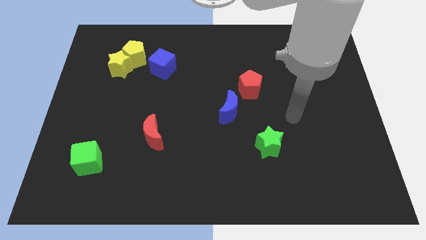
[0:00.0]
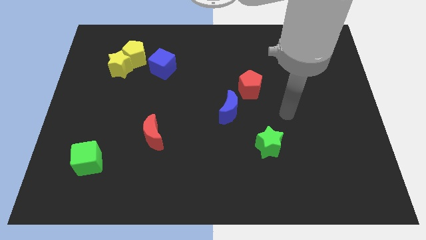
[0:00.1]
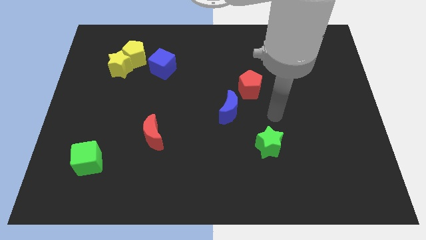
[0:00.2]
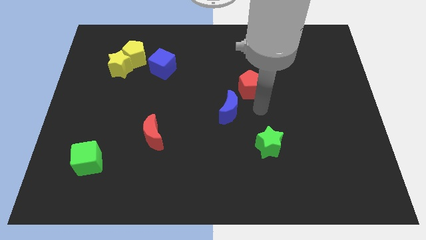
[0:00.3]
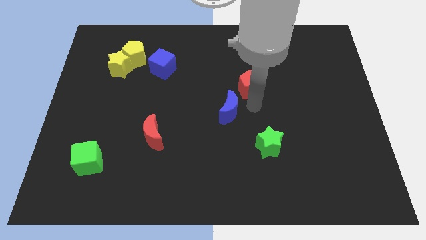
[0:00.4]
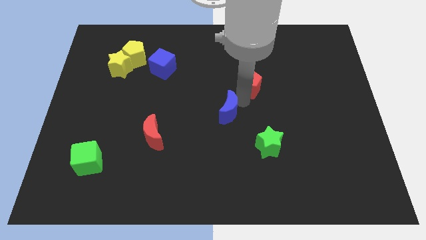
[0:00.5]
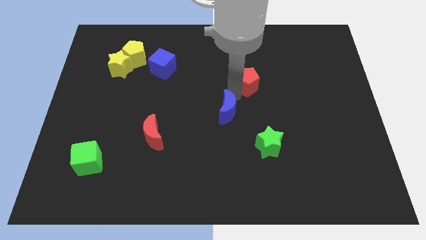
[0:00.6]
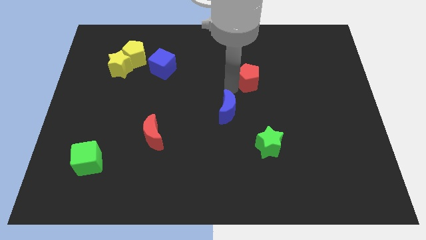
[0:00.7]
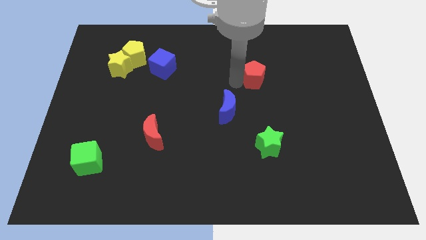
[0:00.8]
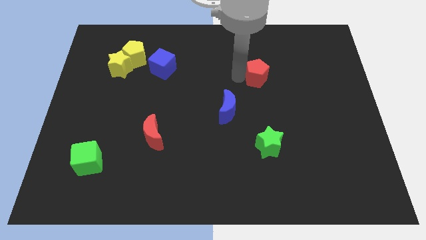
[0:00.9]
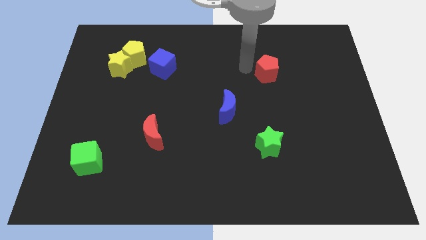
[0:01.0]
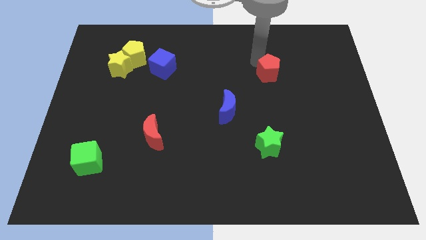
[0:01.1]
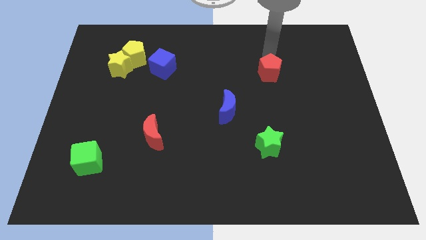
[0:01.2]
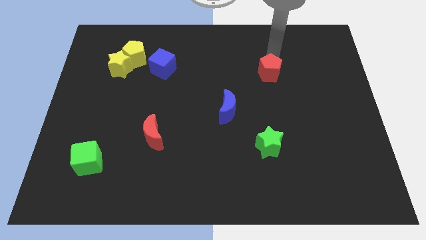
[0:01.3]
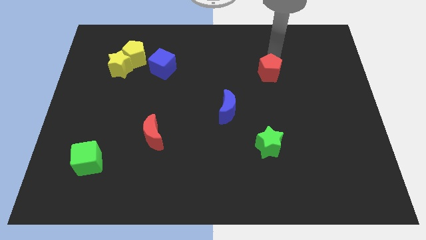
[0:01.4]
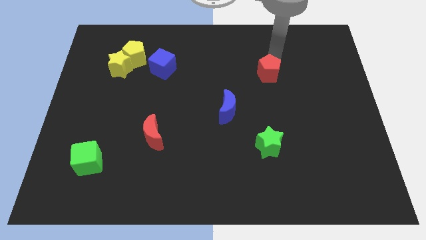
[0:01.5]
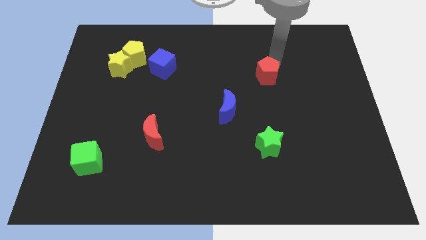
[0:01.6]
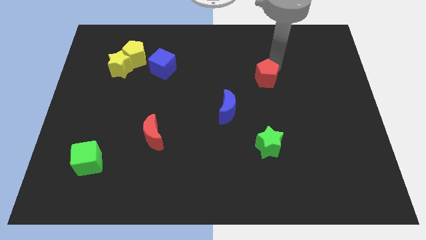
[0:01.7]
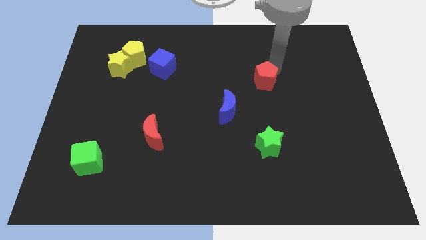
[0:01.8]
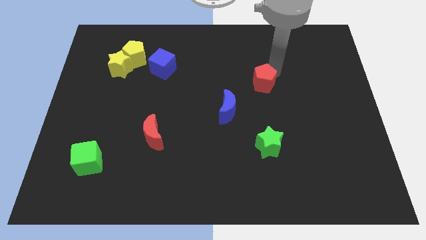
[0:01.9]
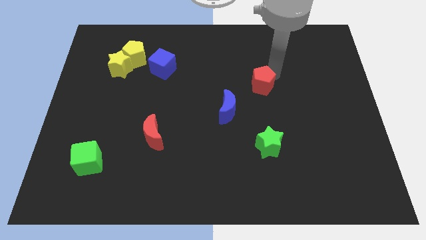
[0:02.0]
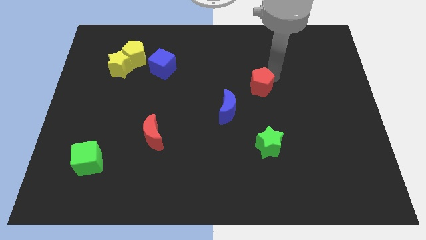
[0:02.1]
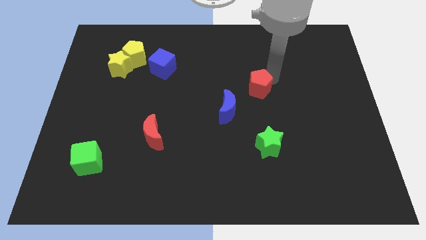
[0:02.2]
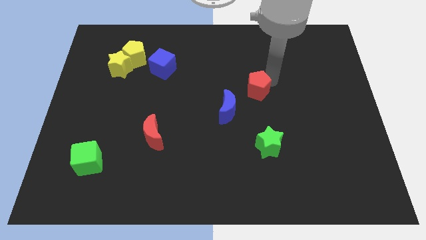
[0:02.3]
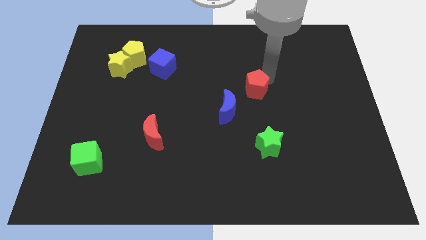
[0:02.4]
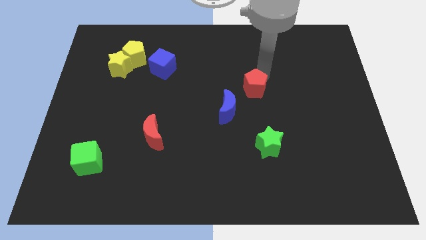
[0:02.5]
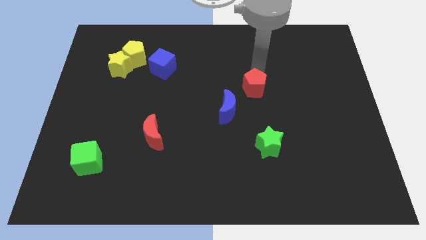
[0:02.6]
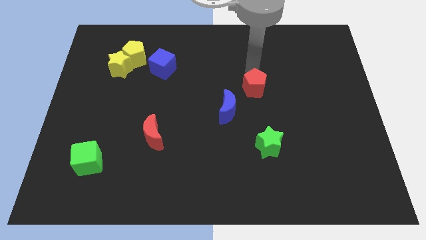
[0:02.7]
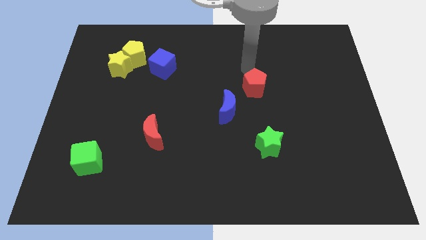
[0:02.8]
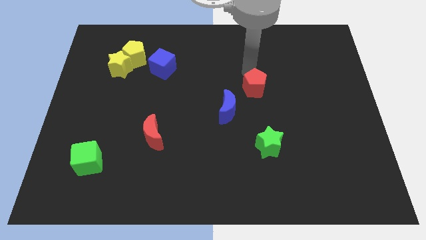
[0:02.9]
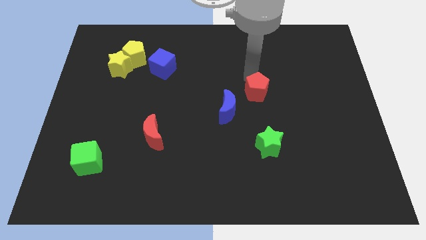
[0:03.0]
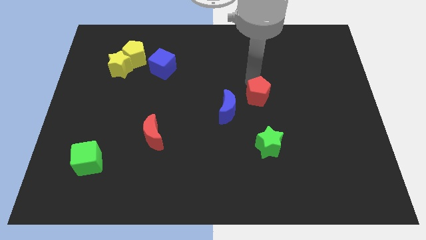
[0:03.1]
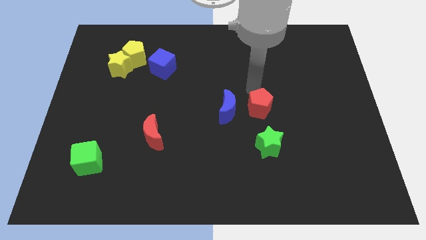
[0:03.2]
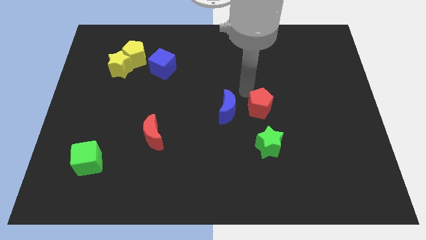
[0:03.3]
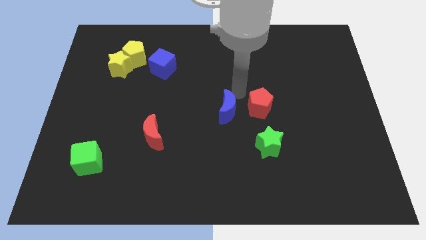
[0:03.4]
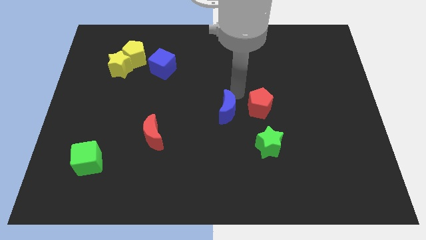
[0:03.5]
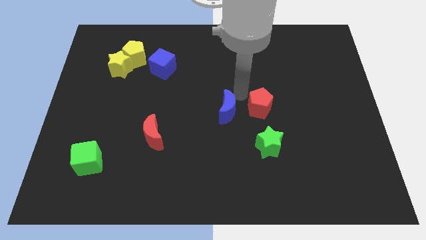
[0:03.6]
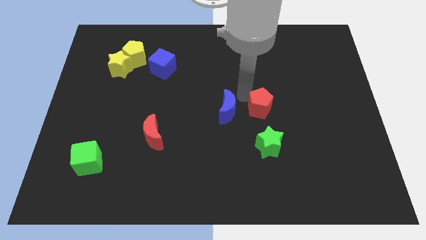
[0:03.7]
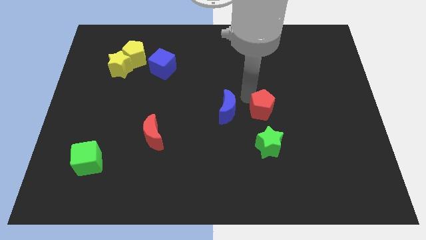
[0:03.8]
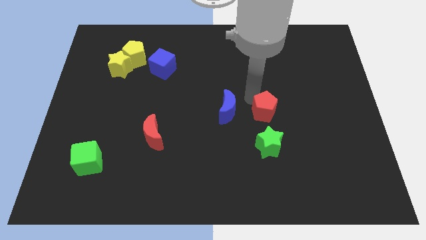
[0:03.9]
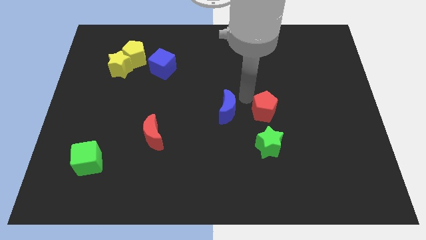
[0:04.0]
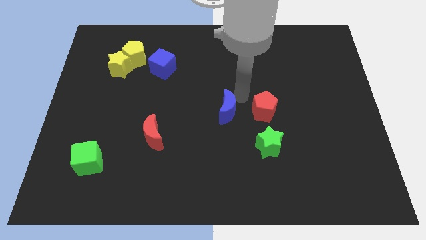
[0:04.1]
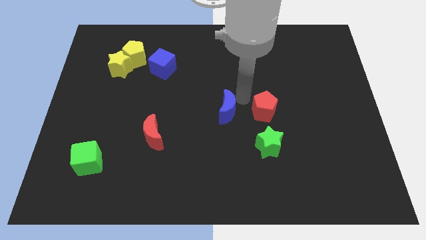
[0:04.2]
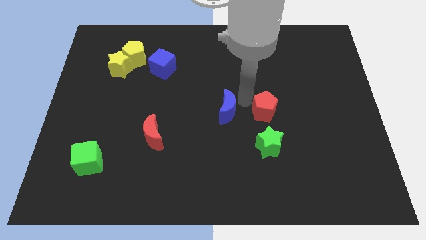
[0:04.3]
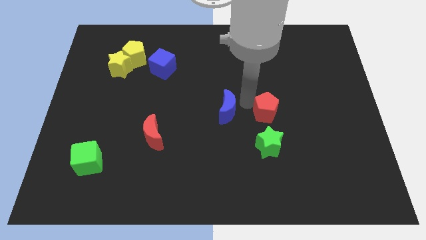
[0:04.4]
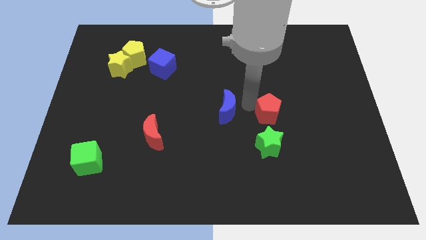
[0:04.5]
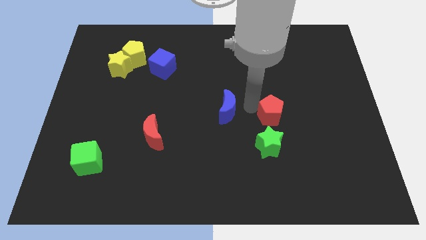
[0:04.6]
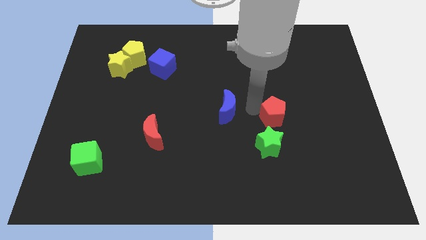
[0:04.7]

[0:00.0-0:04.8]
push the red pentagon to the top right side of the green star

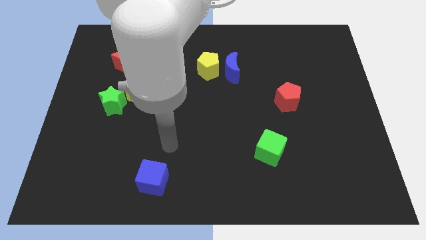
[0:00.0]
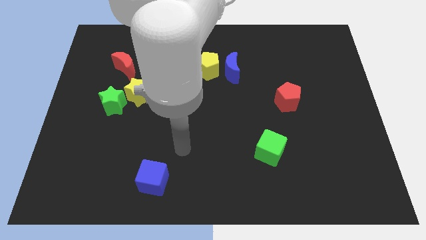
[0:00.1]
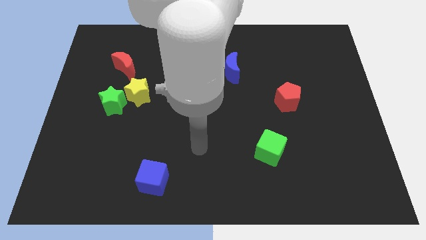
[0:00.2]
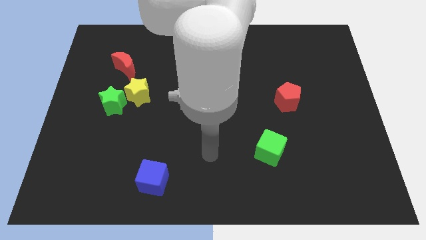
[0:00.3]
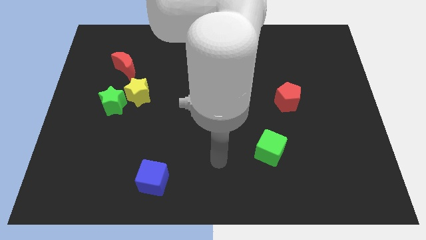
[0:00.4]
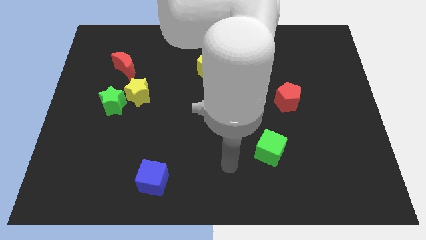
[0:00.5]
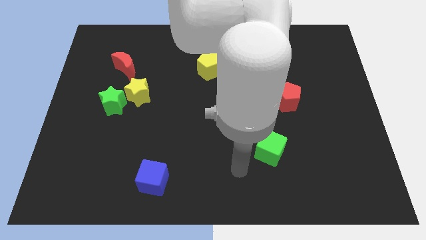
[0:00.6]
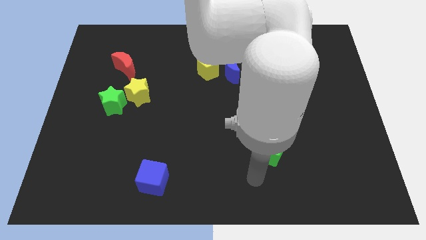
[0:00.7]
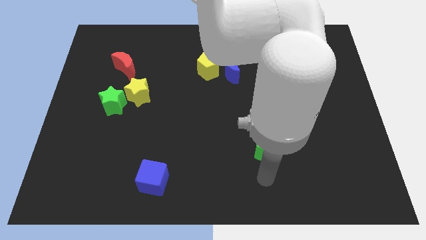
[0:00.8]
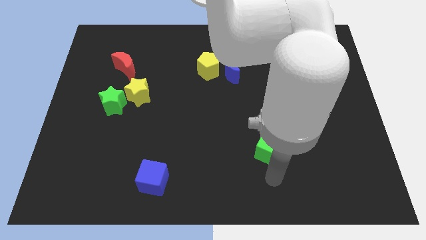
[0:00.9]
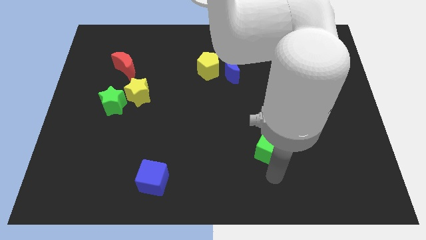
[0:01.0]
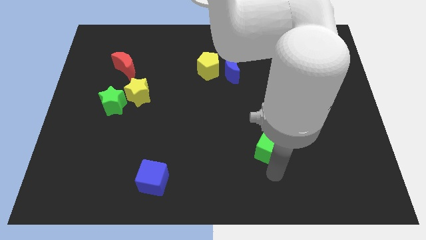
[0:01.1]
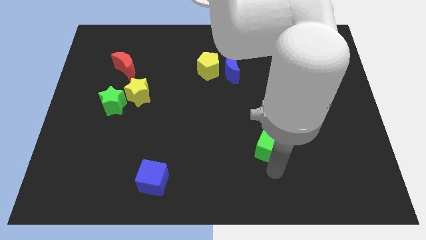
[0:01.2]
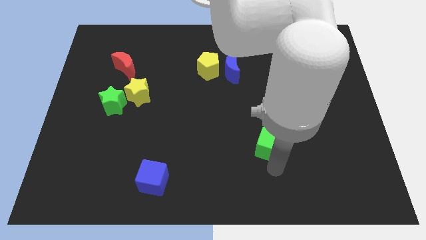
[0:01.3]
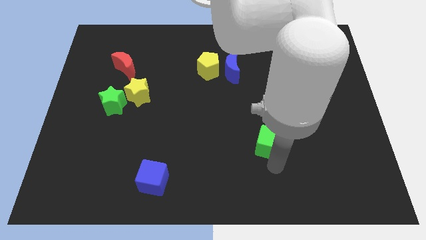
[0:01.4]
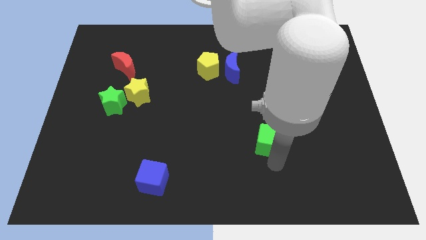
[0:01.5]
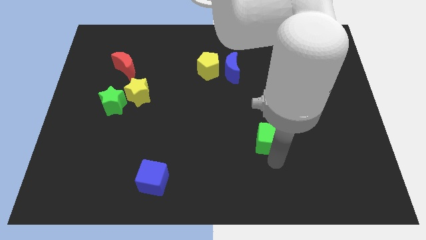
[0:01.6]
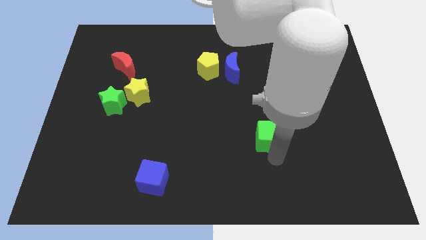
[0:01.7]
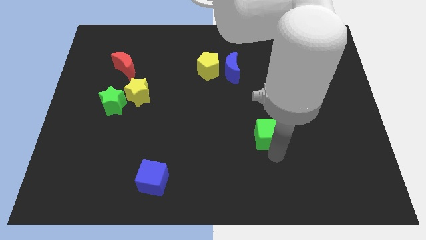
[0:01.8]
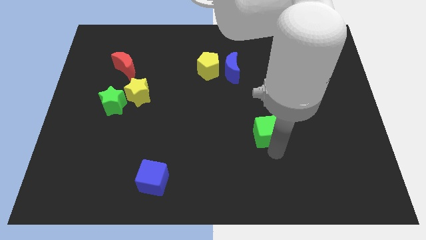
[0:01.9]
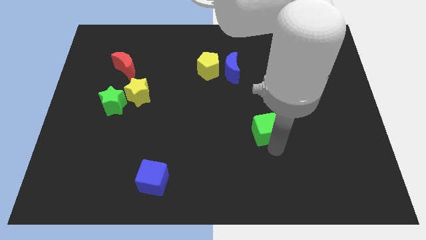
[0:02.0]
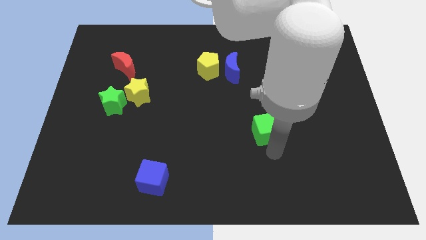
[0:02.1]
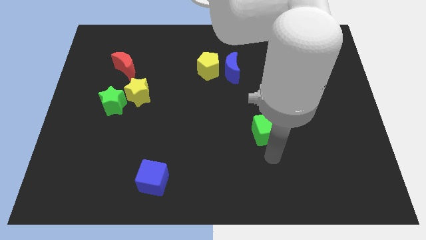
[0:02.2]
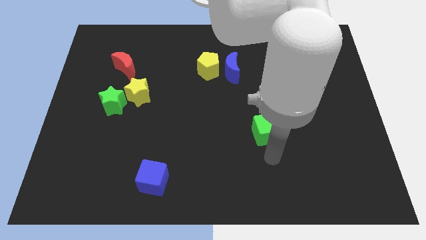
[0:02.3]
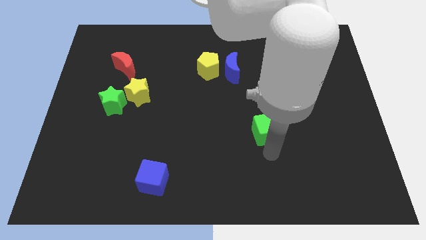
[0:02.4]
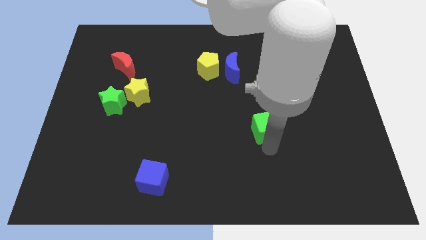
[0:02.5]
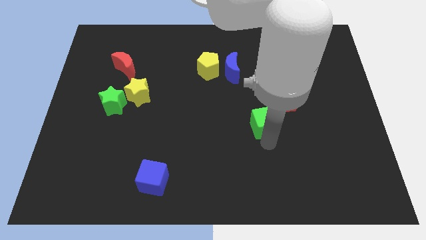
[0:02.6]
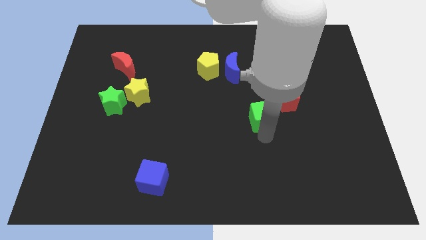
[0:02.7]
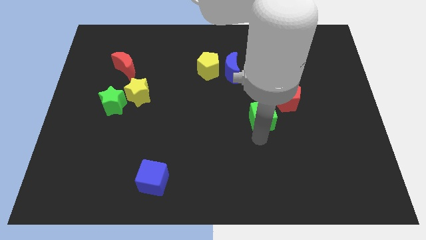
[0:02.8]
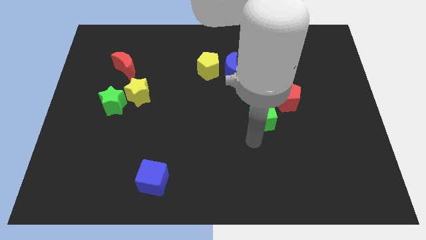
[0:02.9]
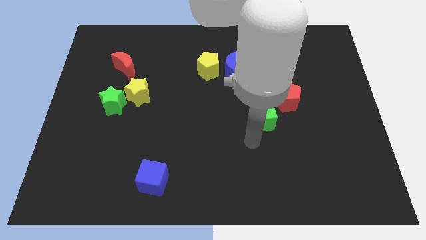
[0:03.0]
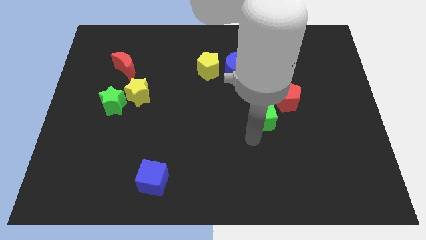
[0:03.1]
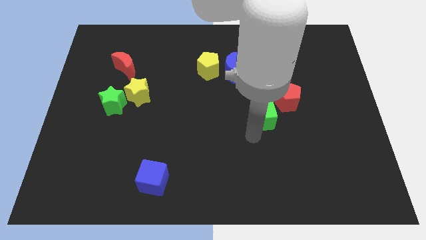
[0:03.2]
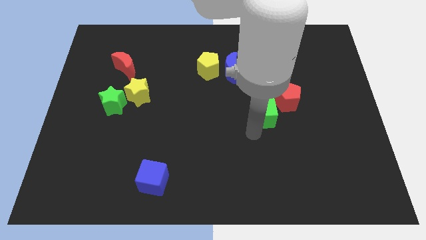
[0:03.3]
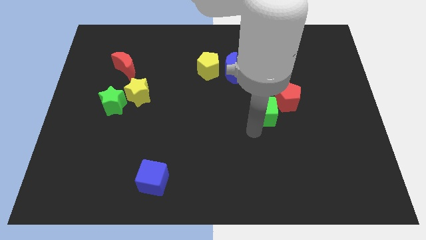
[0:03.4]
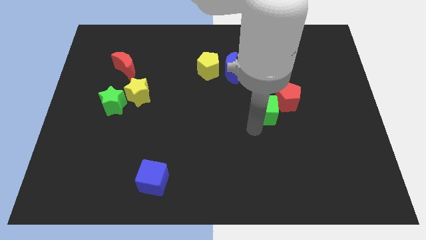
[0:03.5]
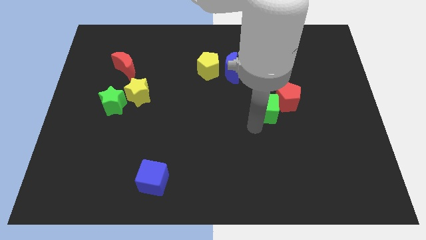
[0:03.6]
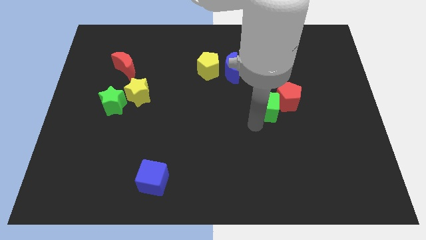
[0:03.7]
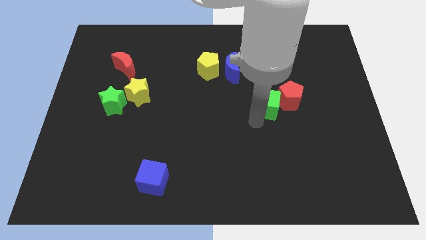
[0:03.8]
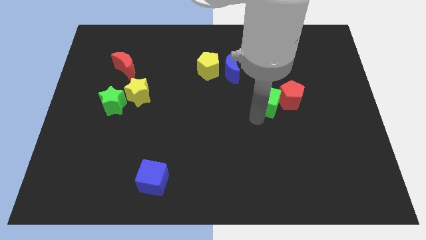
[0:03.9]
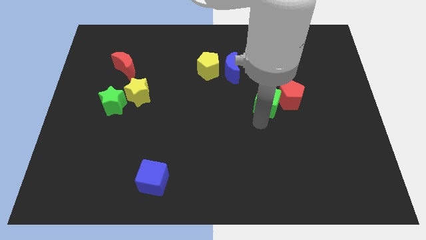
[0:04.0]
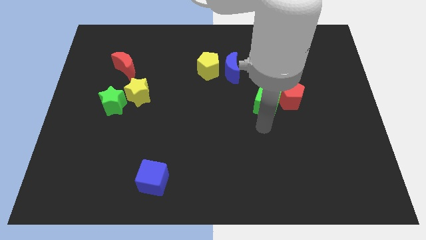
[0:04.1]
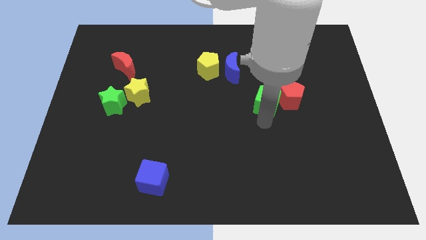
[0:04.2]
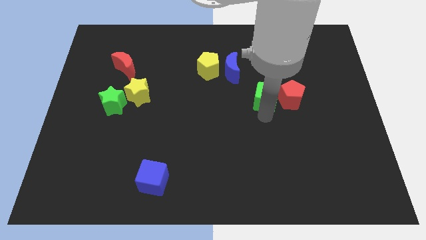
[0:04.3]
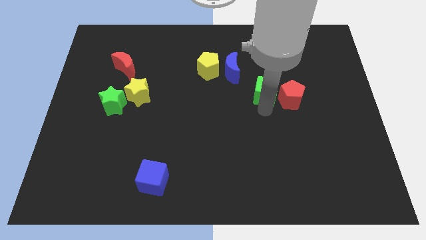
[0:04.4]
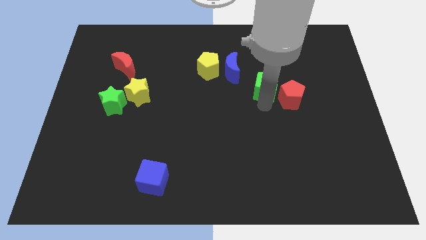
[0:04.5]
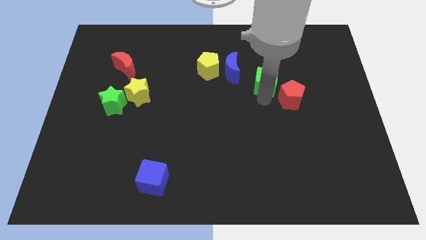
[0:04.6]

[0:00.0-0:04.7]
slide the green cube just right of the blue moon
